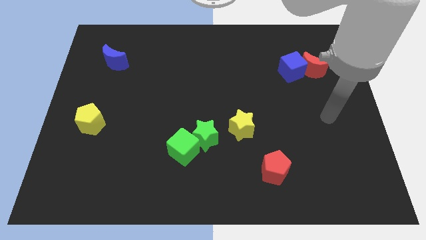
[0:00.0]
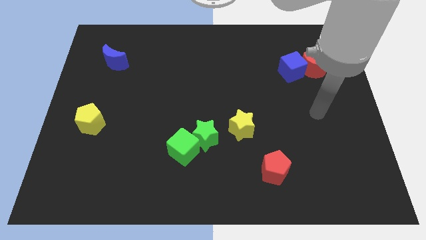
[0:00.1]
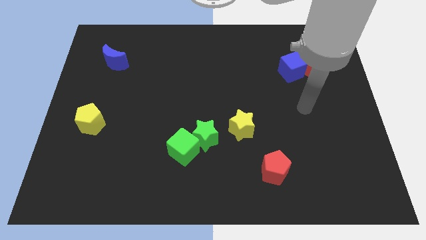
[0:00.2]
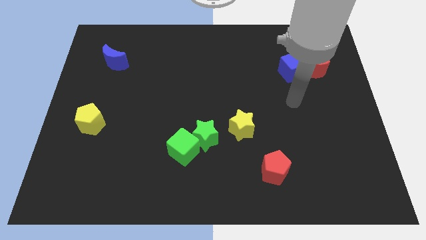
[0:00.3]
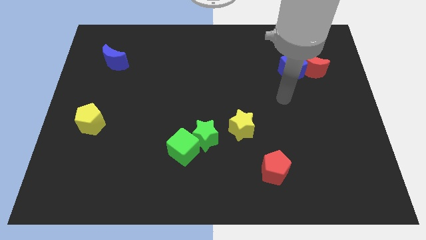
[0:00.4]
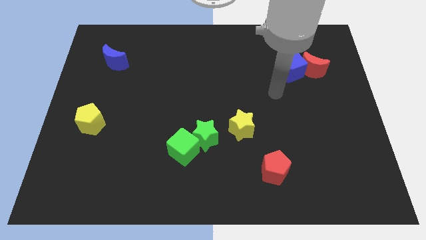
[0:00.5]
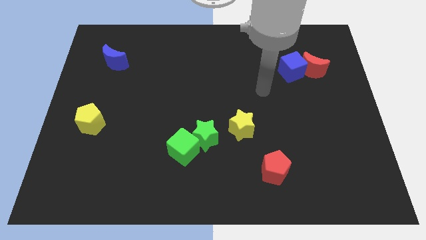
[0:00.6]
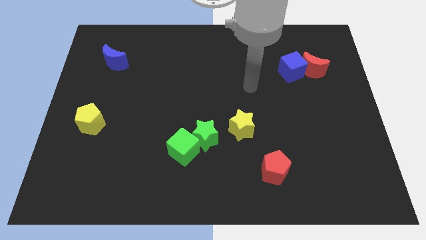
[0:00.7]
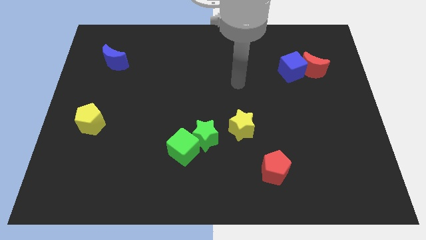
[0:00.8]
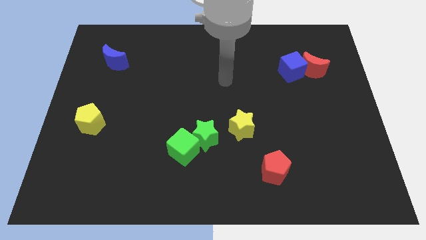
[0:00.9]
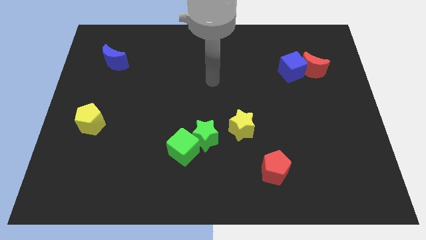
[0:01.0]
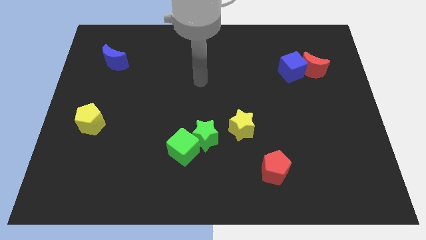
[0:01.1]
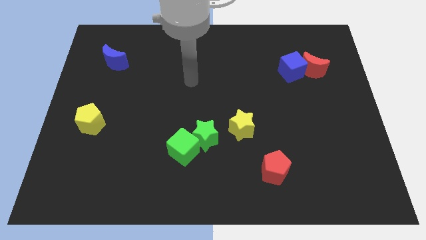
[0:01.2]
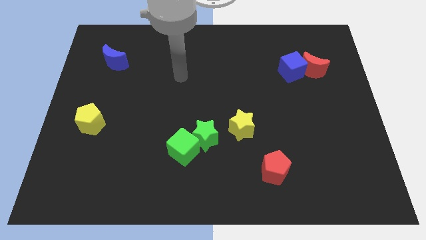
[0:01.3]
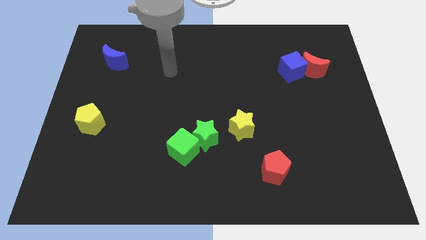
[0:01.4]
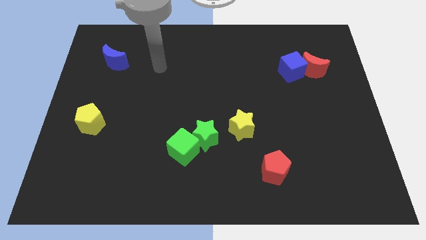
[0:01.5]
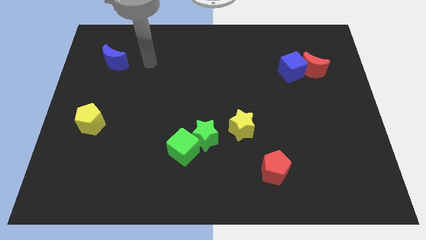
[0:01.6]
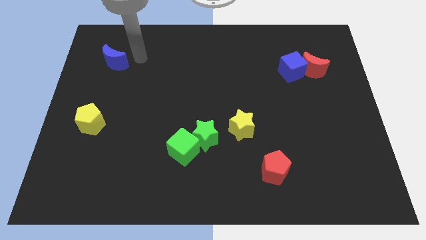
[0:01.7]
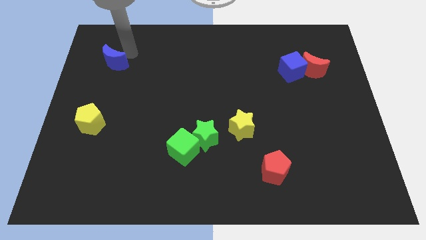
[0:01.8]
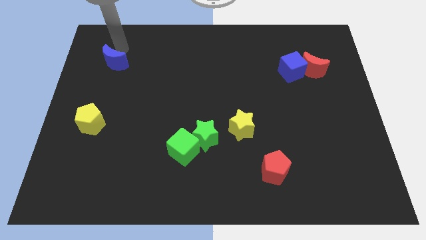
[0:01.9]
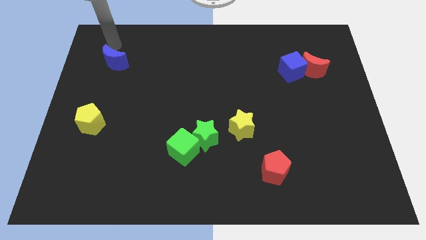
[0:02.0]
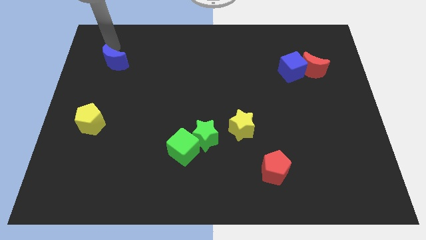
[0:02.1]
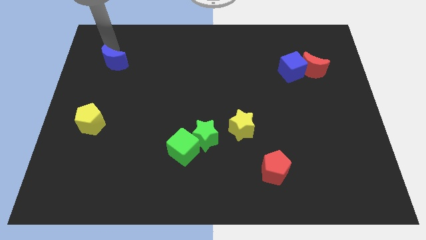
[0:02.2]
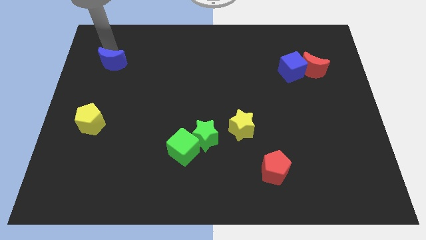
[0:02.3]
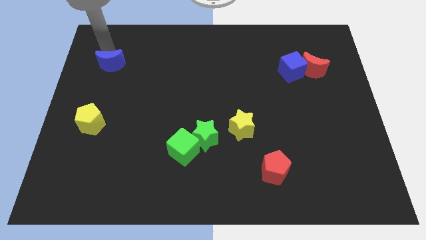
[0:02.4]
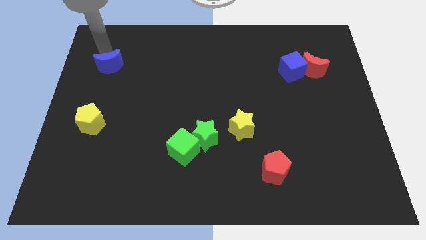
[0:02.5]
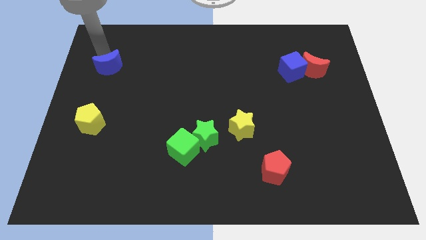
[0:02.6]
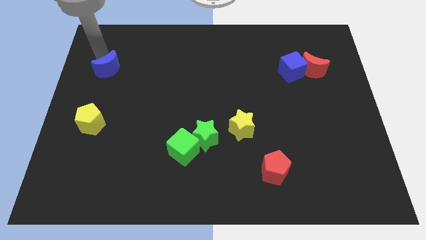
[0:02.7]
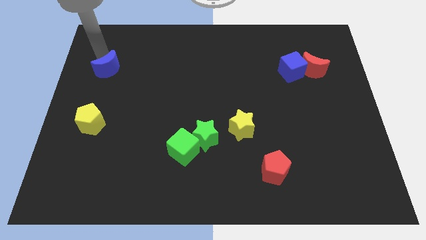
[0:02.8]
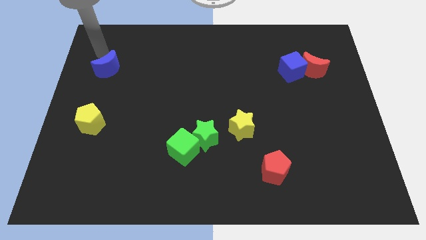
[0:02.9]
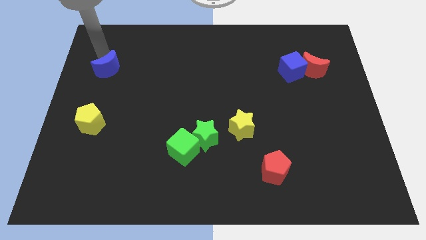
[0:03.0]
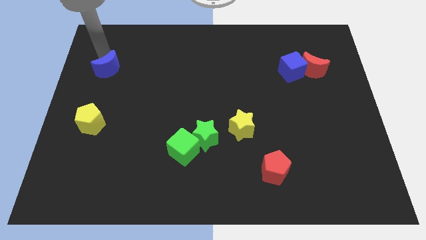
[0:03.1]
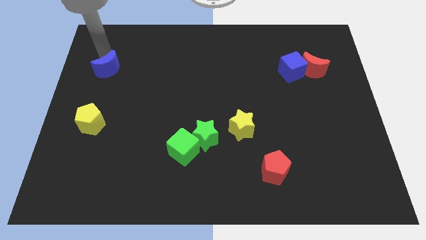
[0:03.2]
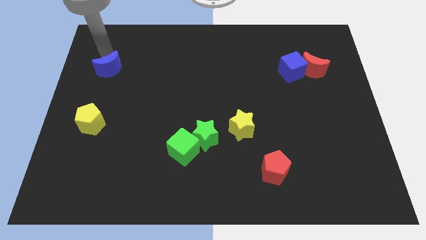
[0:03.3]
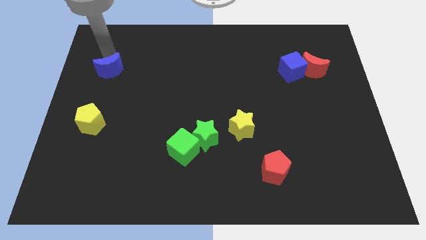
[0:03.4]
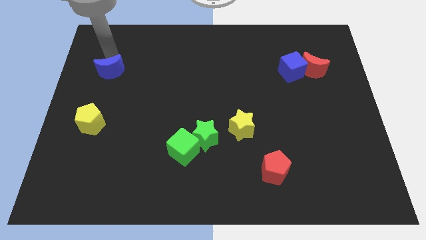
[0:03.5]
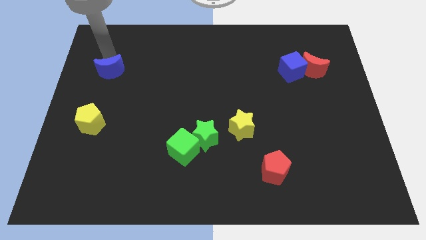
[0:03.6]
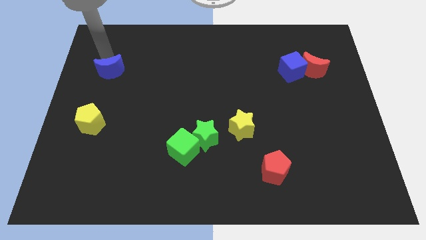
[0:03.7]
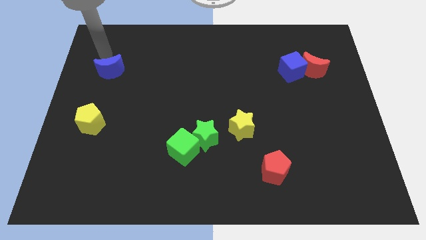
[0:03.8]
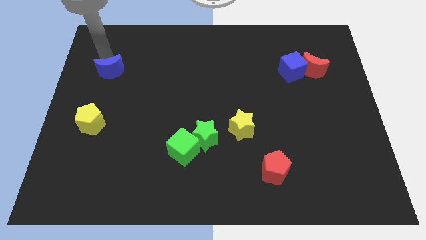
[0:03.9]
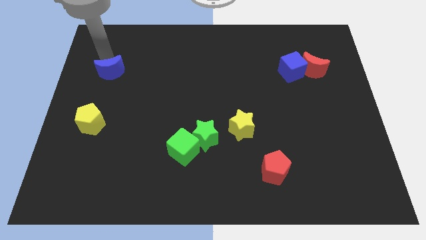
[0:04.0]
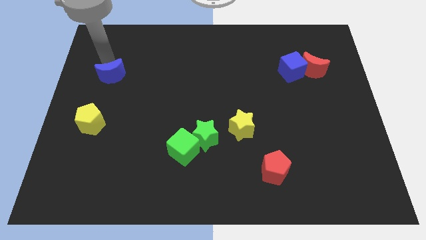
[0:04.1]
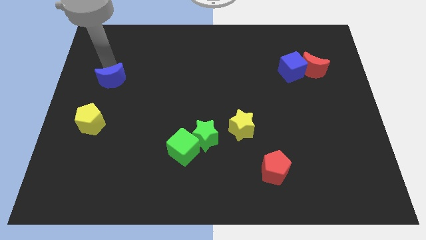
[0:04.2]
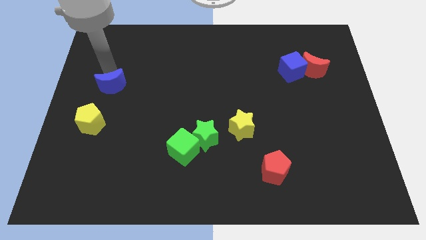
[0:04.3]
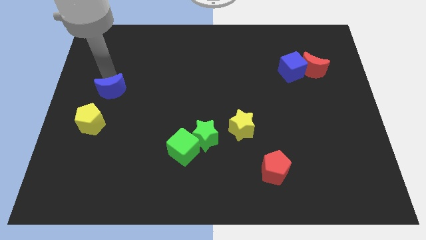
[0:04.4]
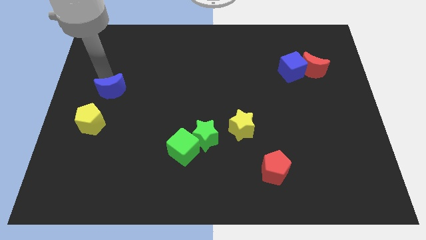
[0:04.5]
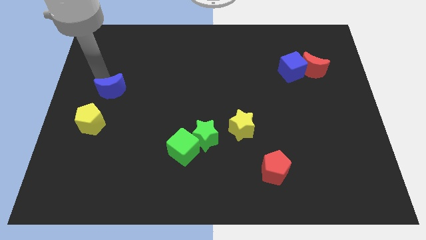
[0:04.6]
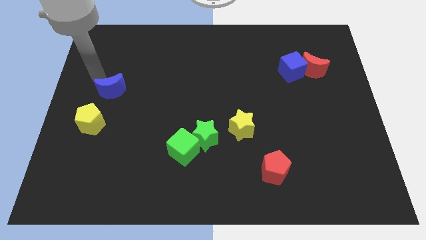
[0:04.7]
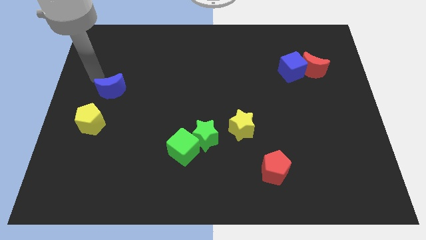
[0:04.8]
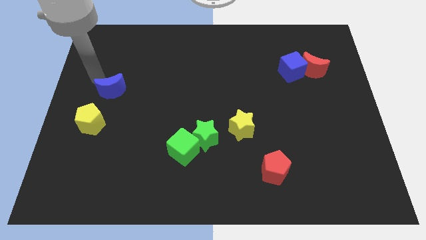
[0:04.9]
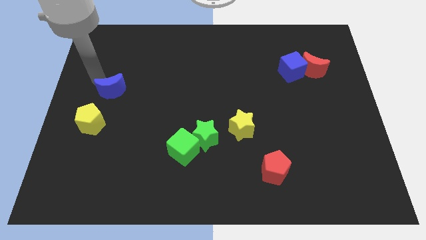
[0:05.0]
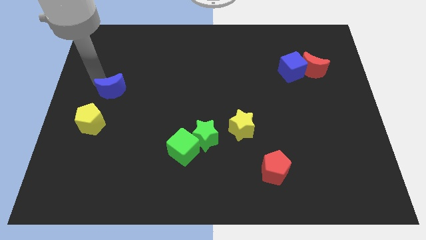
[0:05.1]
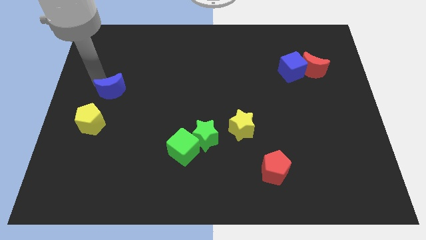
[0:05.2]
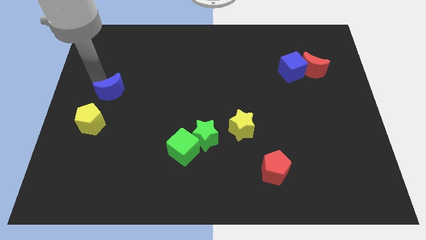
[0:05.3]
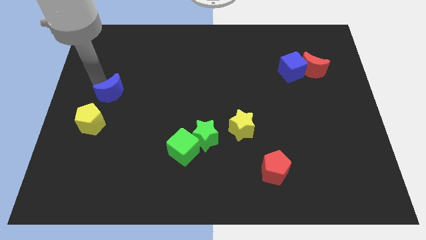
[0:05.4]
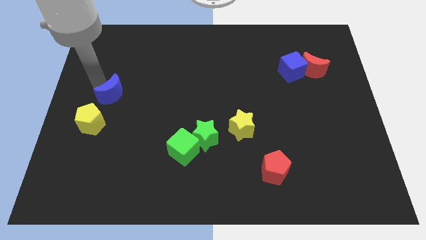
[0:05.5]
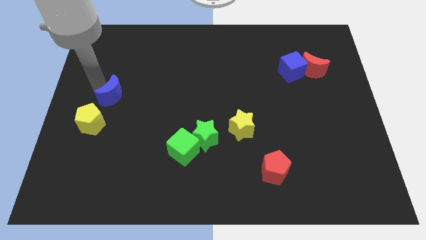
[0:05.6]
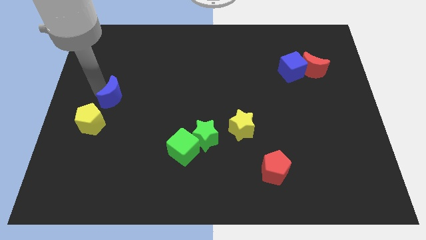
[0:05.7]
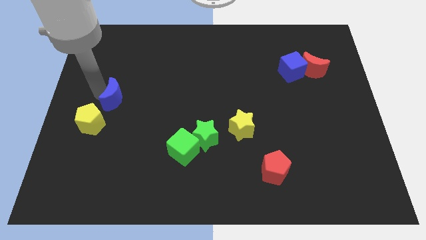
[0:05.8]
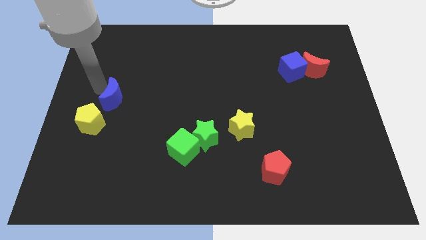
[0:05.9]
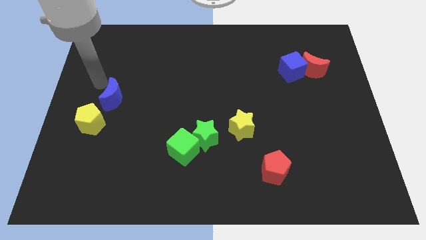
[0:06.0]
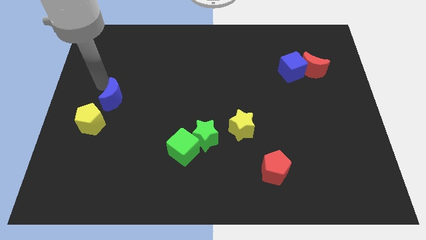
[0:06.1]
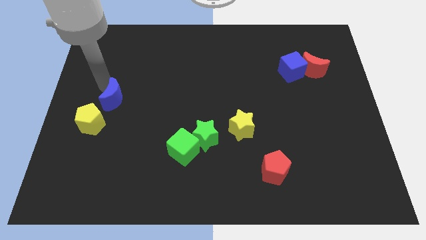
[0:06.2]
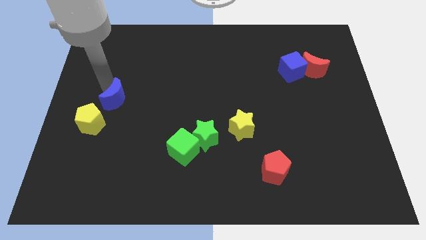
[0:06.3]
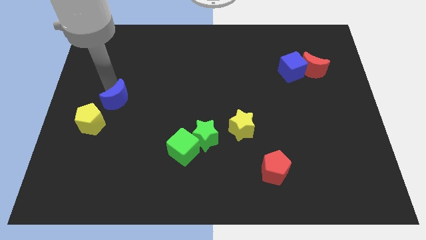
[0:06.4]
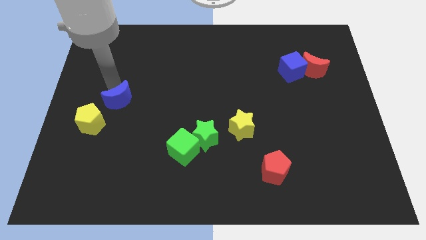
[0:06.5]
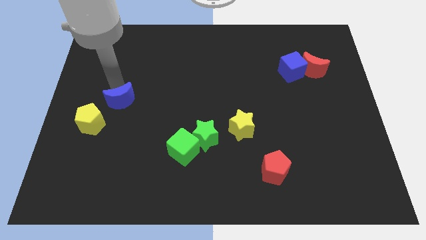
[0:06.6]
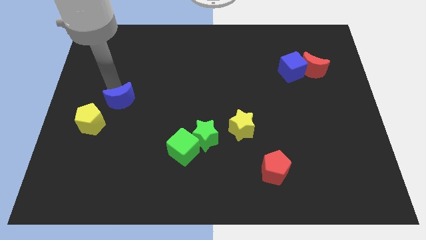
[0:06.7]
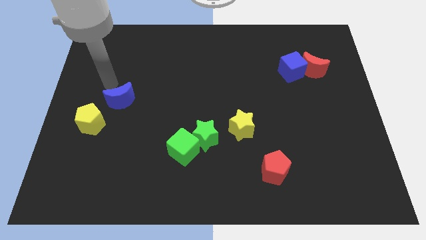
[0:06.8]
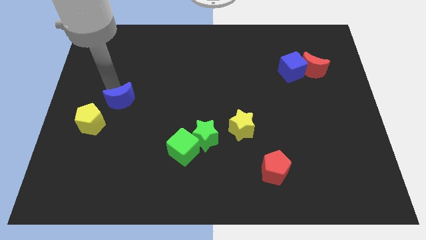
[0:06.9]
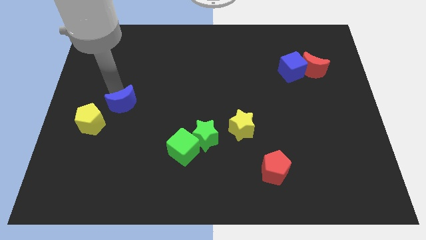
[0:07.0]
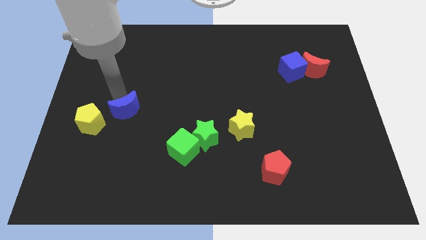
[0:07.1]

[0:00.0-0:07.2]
slide the blue moon right of the yellow pentagon
